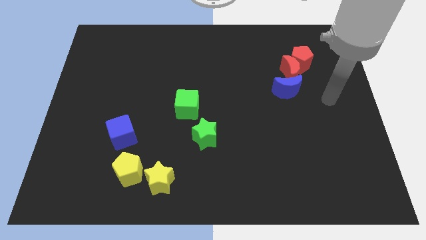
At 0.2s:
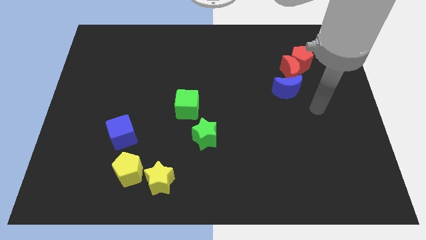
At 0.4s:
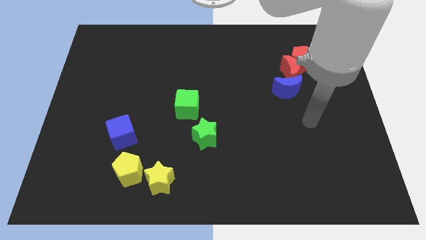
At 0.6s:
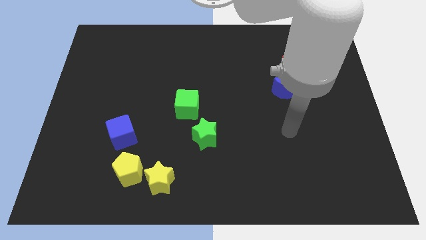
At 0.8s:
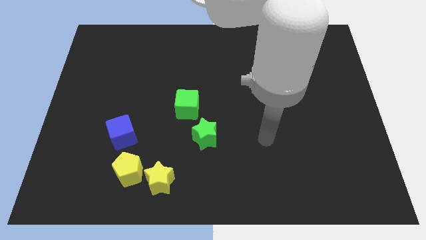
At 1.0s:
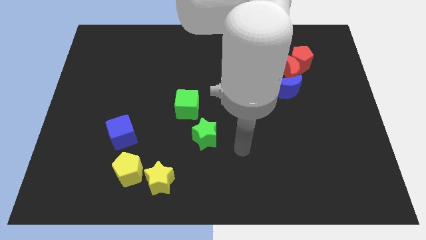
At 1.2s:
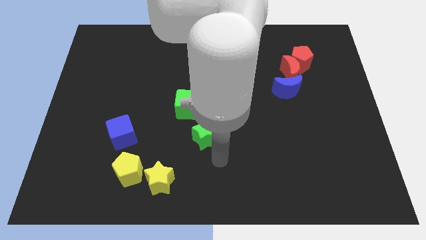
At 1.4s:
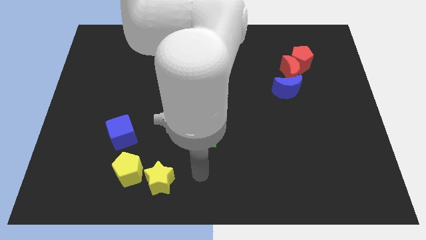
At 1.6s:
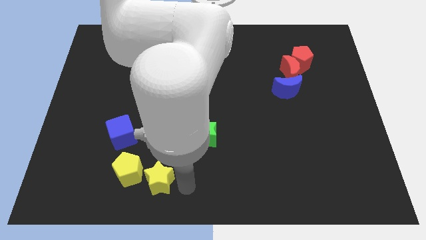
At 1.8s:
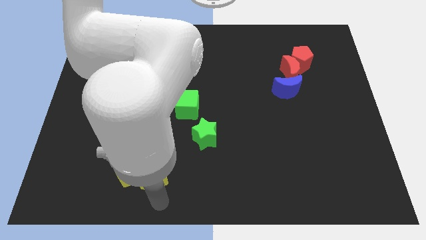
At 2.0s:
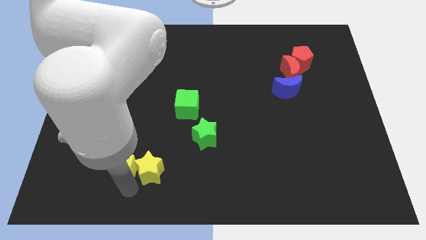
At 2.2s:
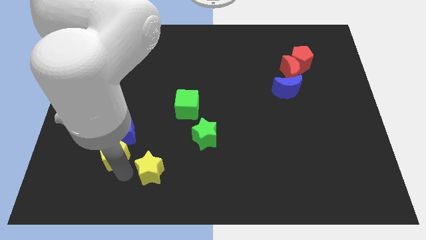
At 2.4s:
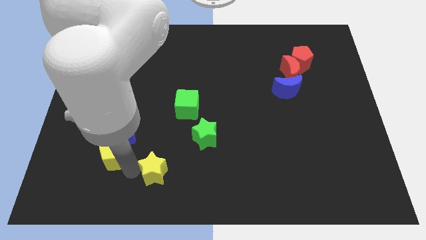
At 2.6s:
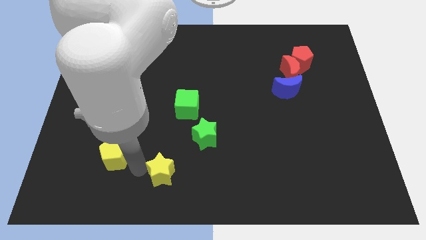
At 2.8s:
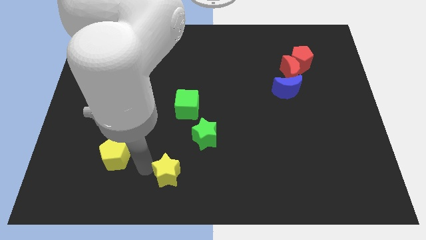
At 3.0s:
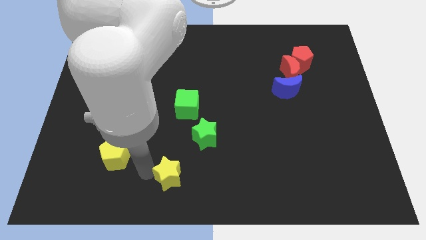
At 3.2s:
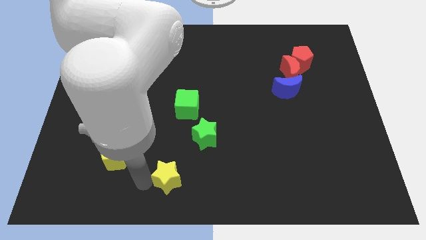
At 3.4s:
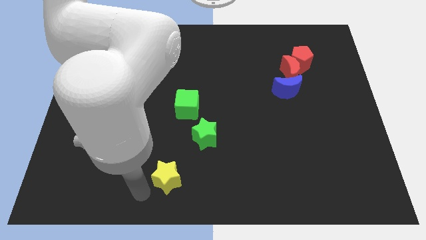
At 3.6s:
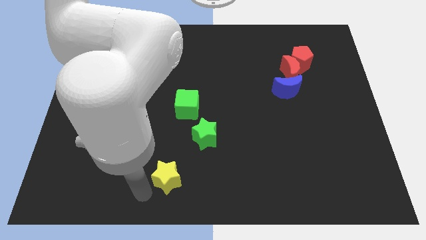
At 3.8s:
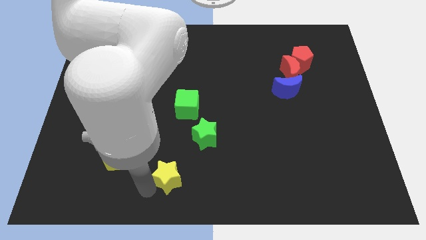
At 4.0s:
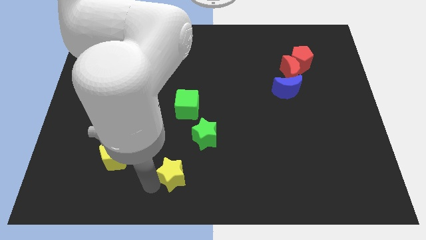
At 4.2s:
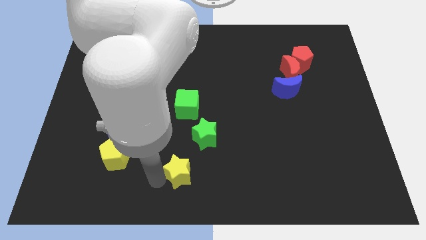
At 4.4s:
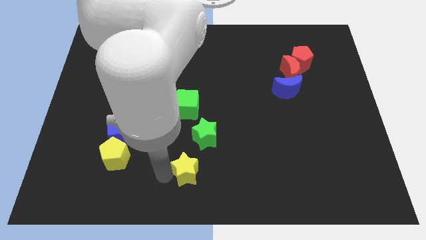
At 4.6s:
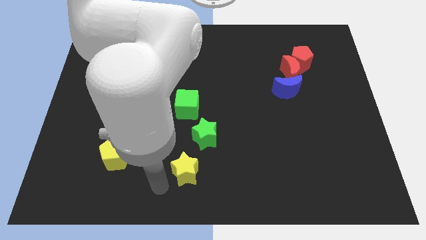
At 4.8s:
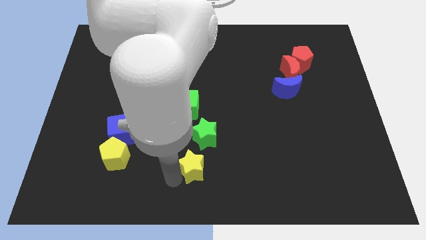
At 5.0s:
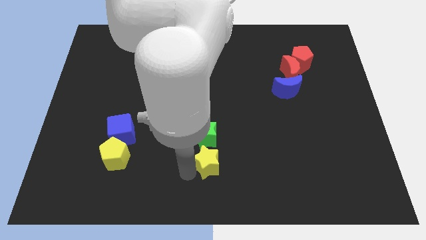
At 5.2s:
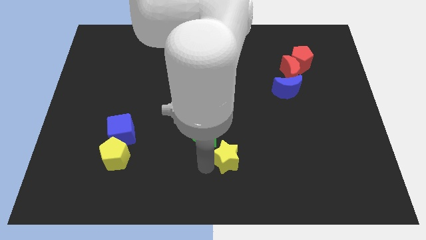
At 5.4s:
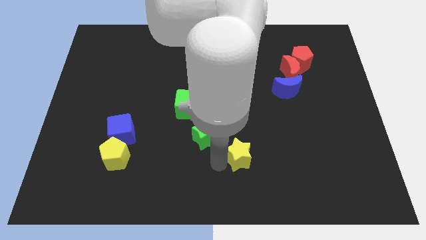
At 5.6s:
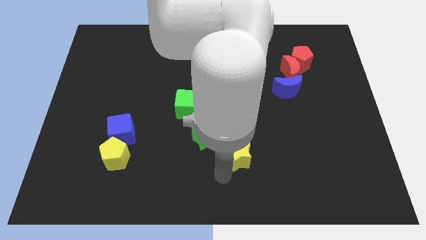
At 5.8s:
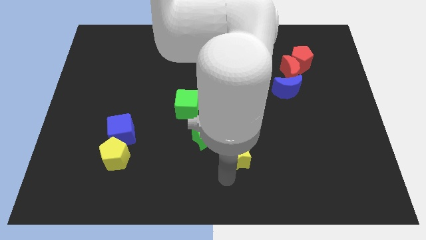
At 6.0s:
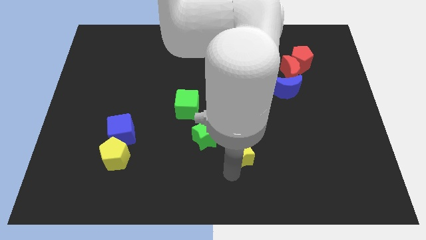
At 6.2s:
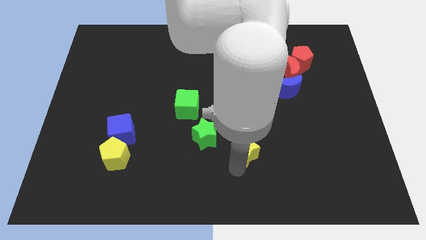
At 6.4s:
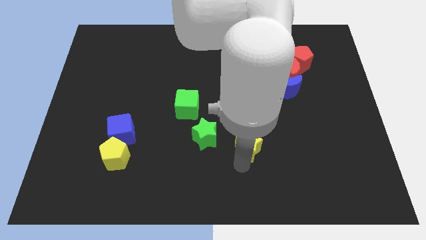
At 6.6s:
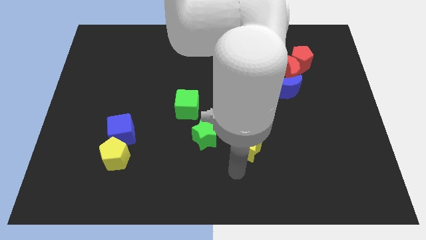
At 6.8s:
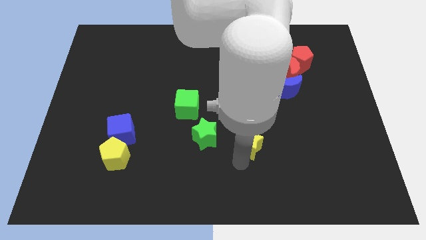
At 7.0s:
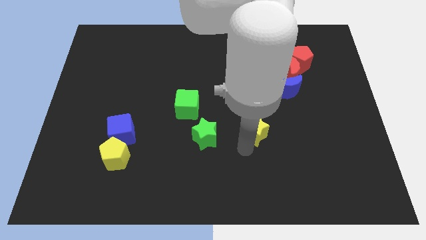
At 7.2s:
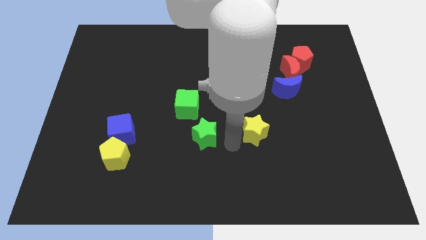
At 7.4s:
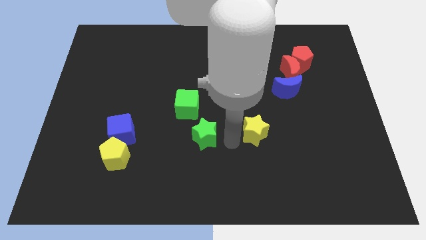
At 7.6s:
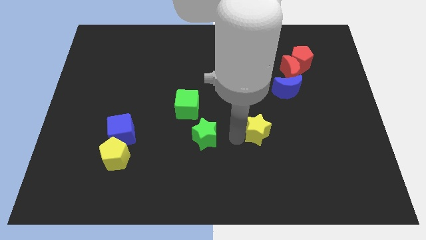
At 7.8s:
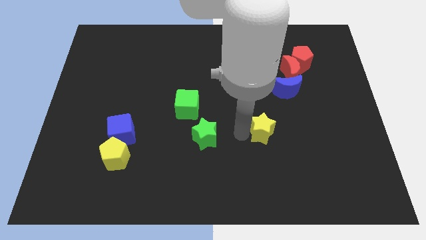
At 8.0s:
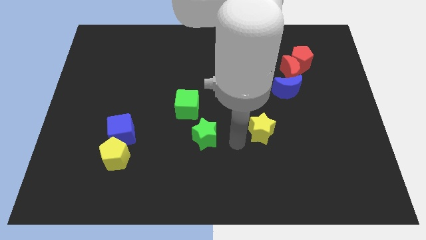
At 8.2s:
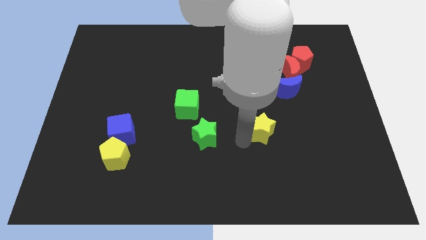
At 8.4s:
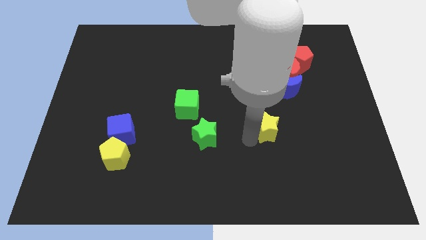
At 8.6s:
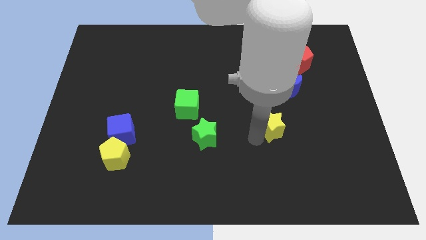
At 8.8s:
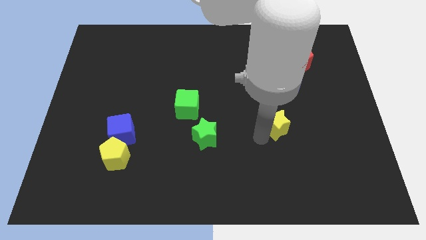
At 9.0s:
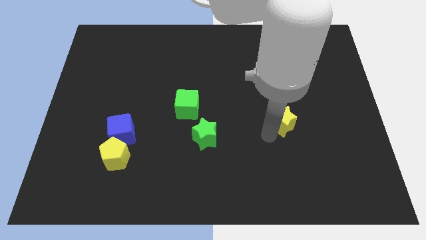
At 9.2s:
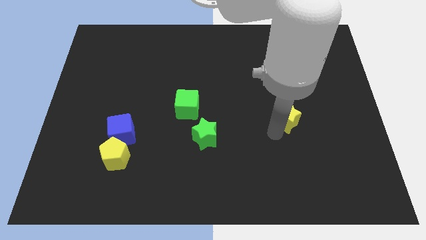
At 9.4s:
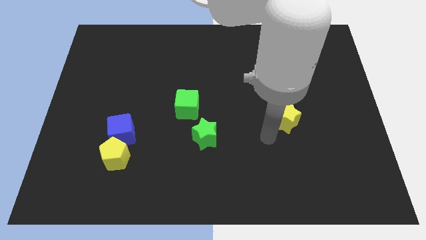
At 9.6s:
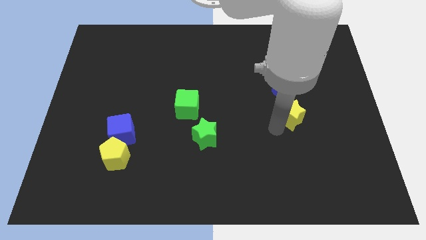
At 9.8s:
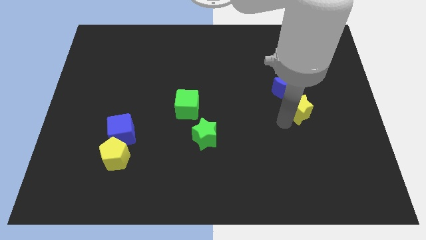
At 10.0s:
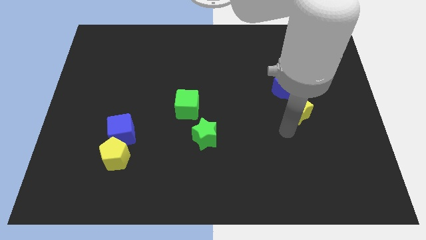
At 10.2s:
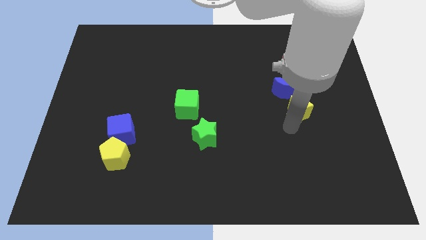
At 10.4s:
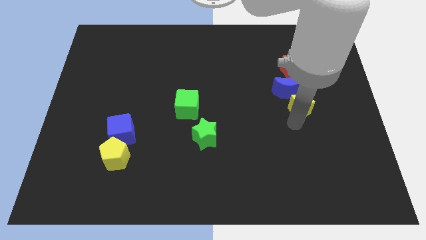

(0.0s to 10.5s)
put the yellow star below the red pentagon

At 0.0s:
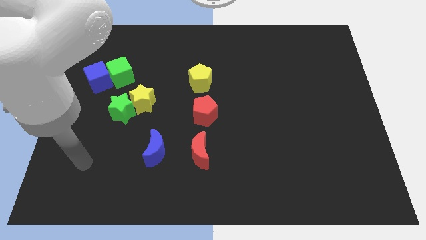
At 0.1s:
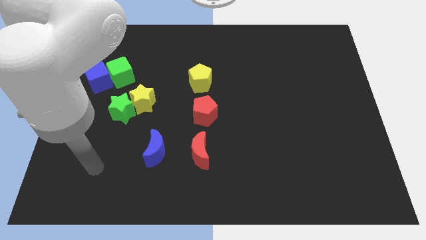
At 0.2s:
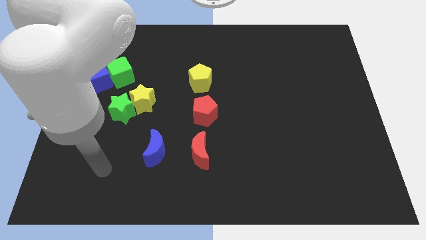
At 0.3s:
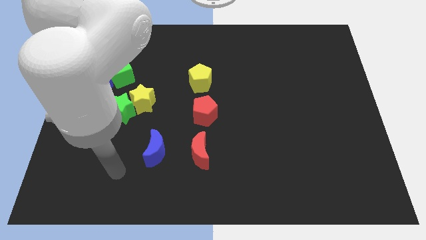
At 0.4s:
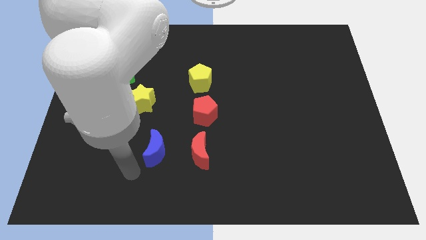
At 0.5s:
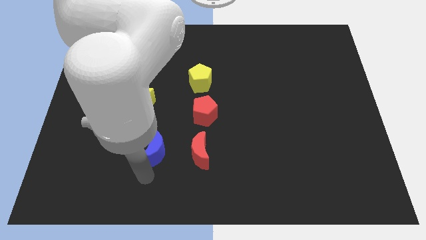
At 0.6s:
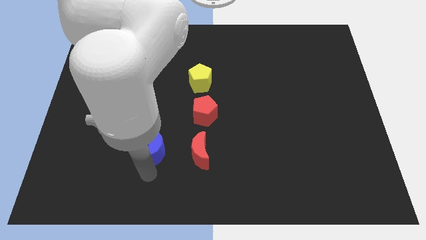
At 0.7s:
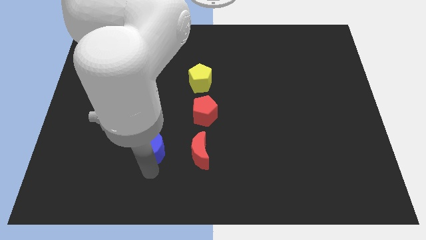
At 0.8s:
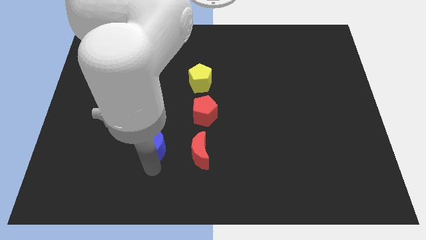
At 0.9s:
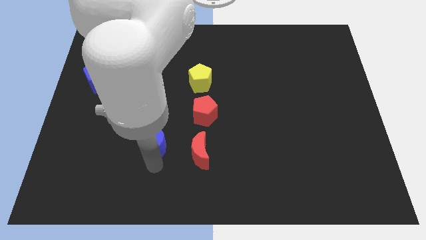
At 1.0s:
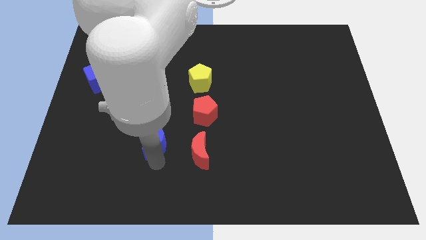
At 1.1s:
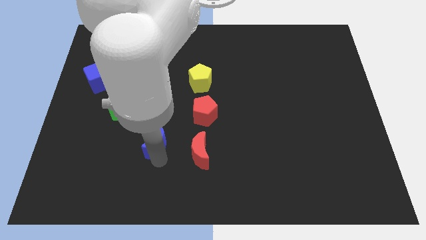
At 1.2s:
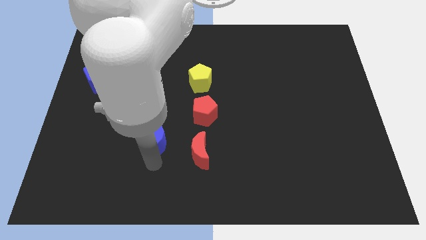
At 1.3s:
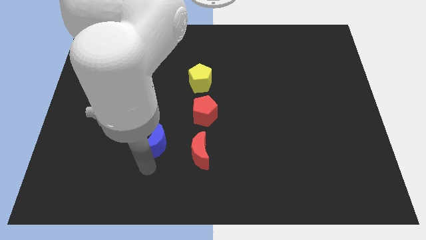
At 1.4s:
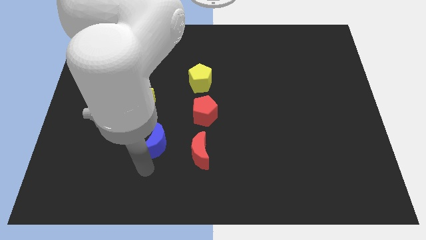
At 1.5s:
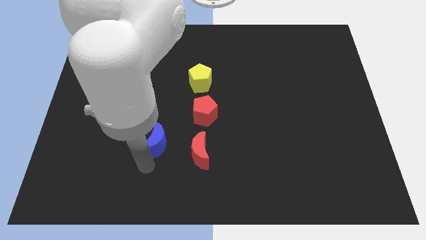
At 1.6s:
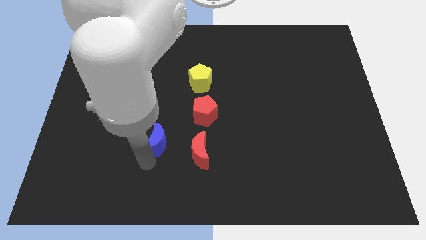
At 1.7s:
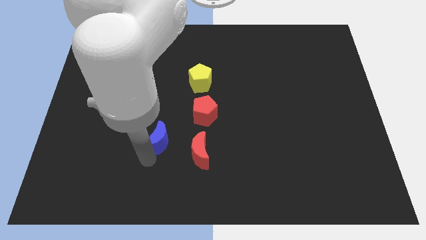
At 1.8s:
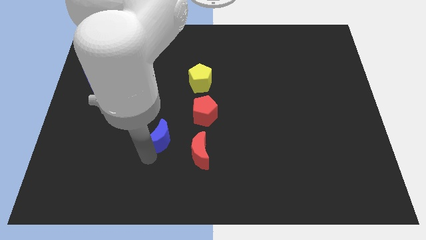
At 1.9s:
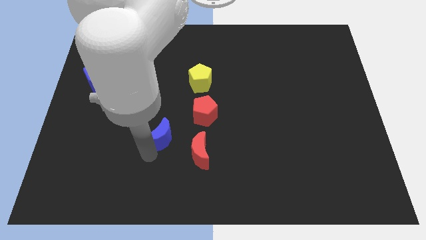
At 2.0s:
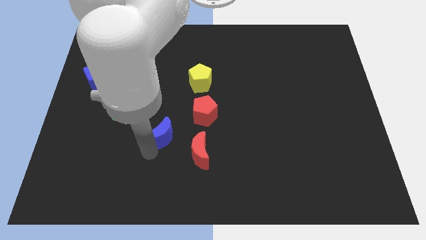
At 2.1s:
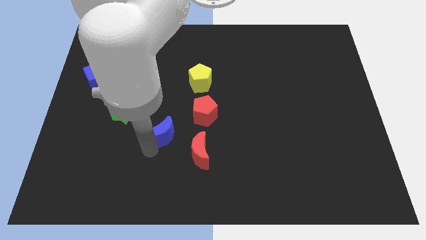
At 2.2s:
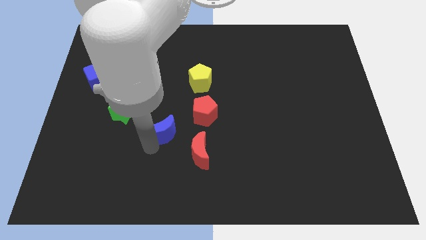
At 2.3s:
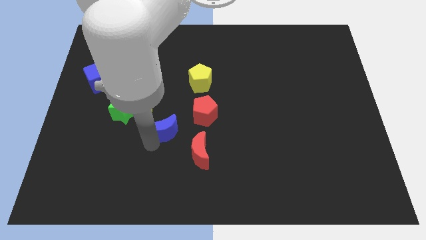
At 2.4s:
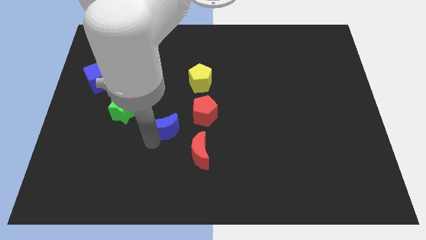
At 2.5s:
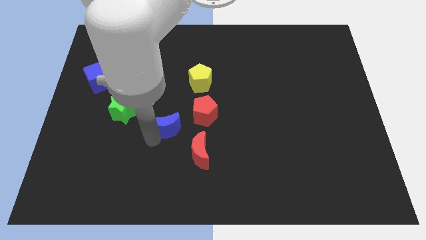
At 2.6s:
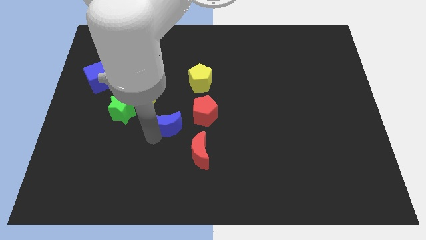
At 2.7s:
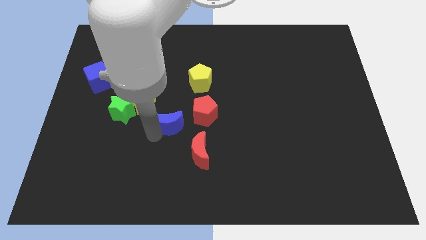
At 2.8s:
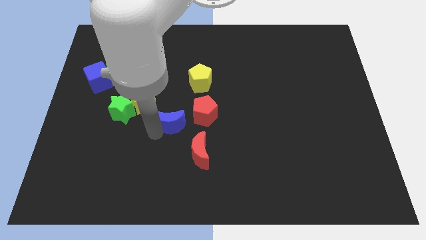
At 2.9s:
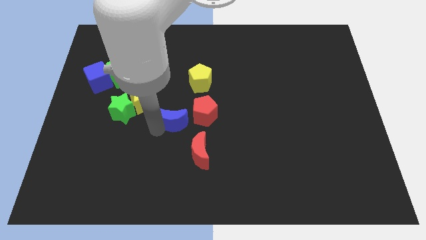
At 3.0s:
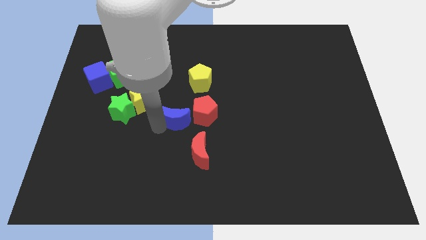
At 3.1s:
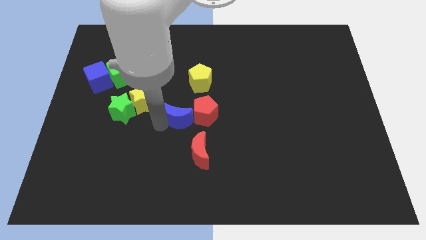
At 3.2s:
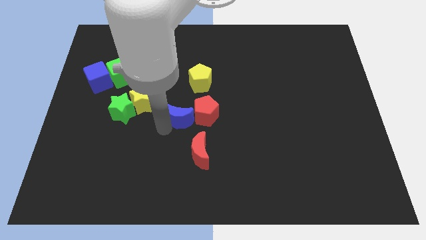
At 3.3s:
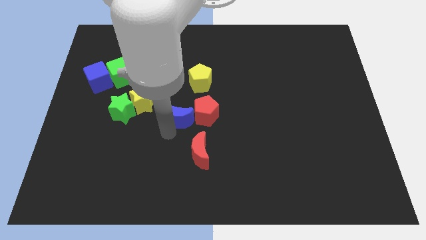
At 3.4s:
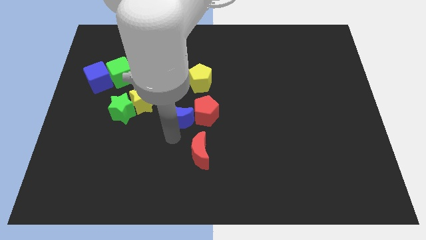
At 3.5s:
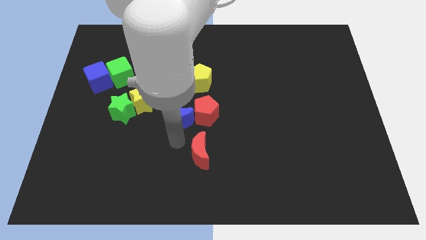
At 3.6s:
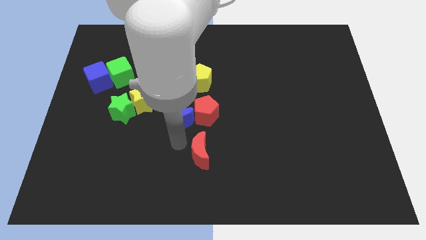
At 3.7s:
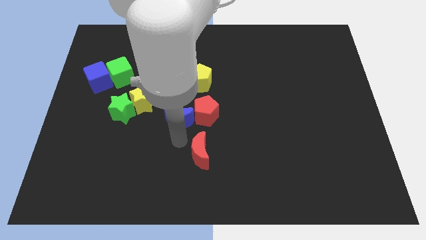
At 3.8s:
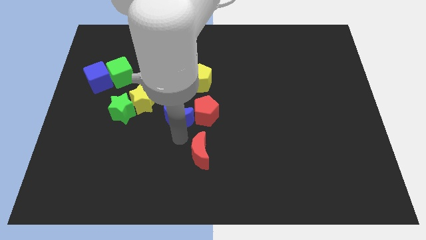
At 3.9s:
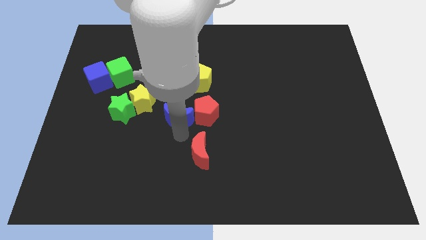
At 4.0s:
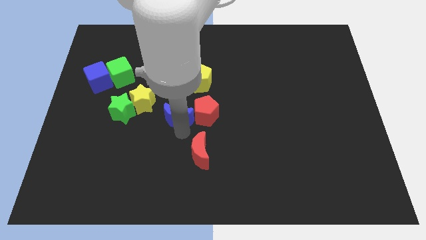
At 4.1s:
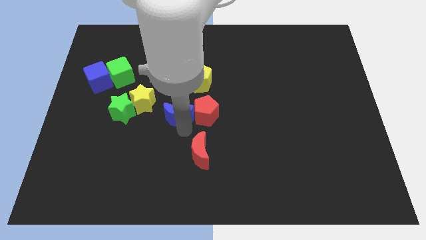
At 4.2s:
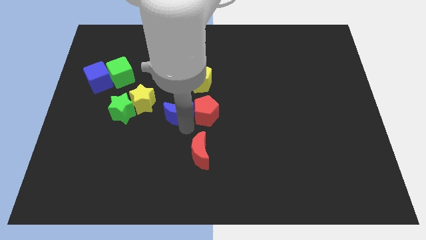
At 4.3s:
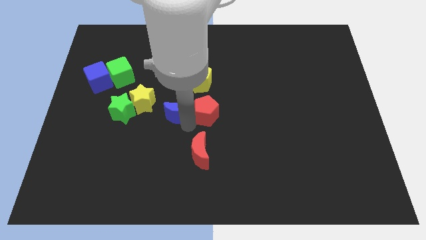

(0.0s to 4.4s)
put the blue moon to the bottom left side of the yellow pentagon
